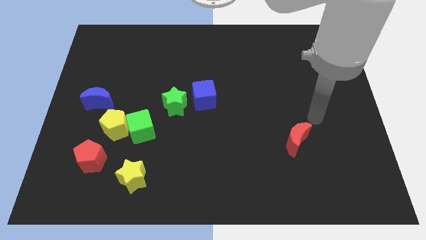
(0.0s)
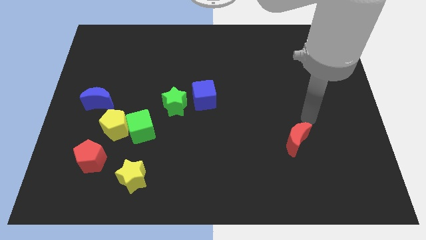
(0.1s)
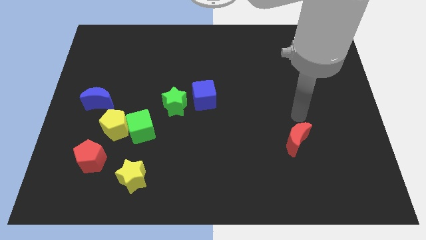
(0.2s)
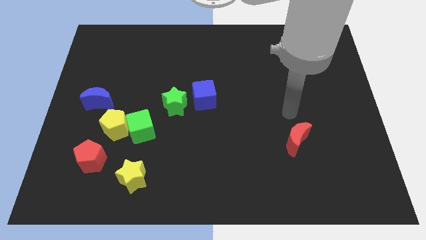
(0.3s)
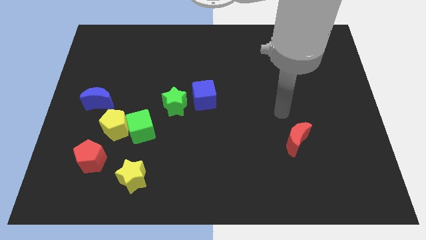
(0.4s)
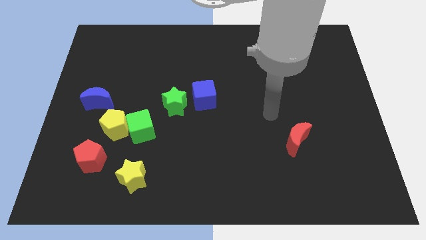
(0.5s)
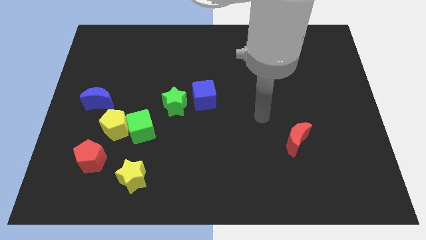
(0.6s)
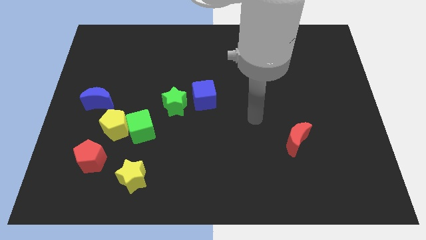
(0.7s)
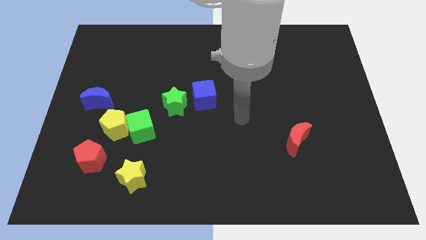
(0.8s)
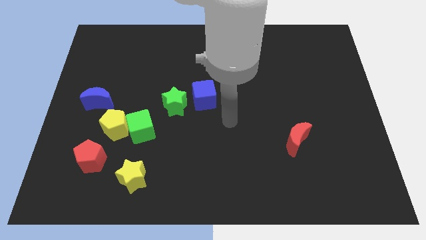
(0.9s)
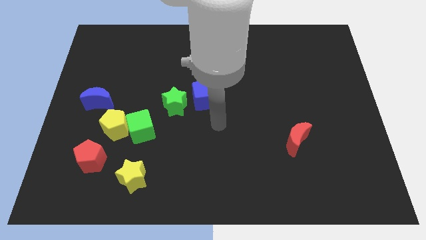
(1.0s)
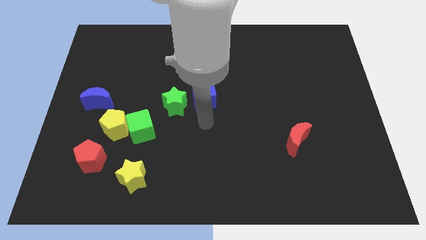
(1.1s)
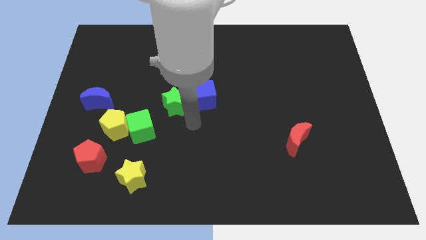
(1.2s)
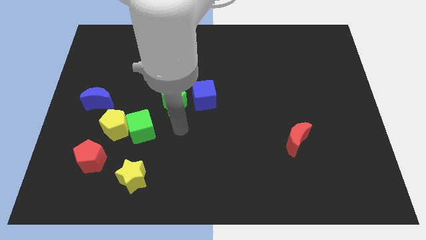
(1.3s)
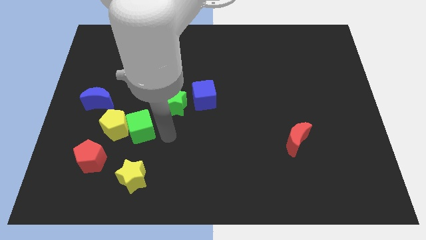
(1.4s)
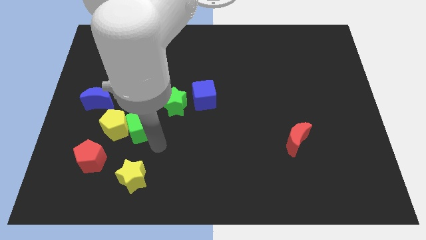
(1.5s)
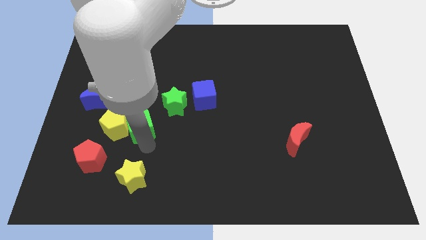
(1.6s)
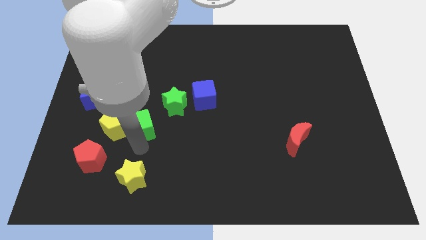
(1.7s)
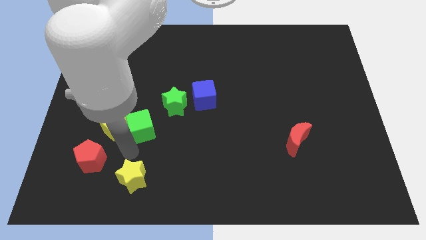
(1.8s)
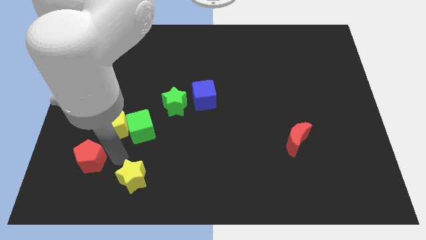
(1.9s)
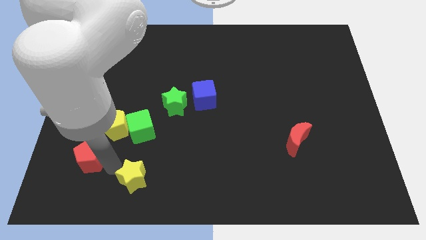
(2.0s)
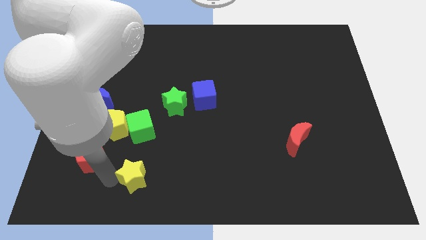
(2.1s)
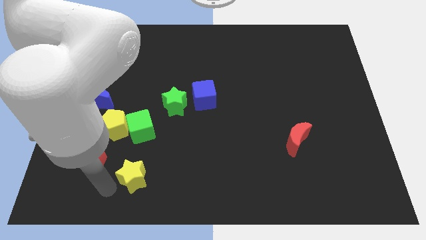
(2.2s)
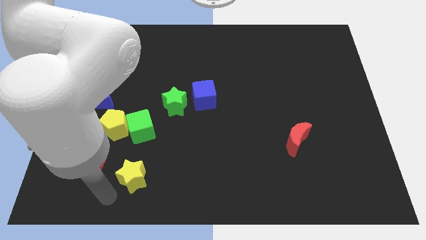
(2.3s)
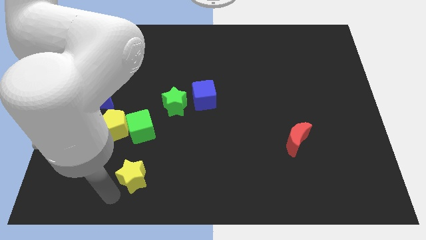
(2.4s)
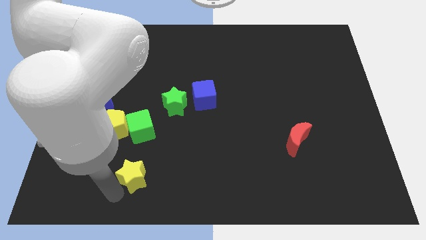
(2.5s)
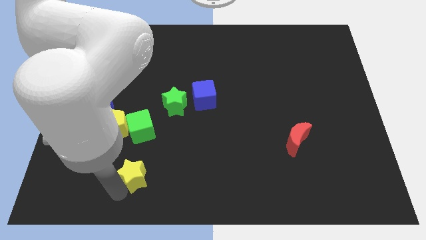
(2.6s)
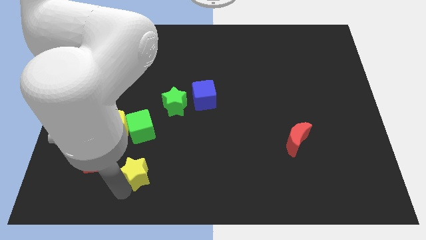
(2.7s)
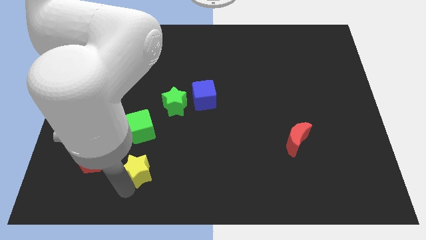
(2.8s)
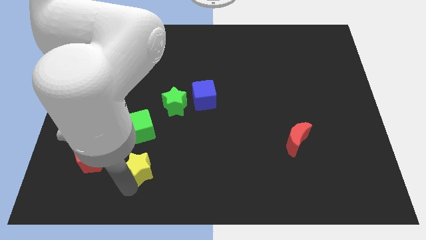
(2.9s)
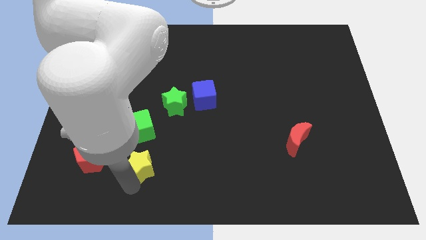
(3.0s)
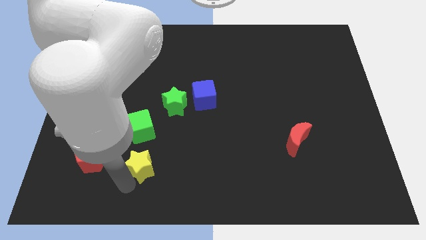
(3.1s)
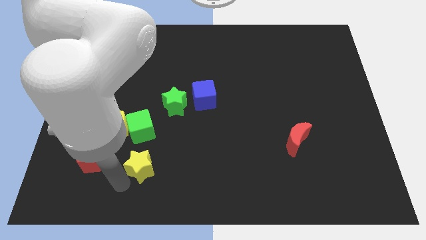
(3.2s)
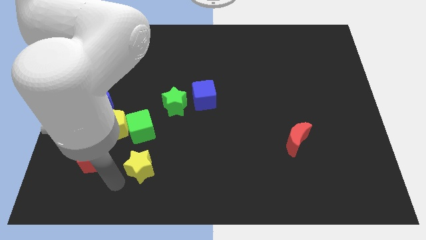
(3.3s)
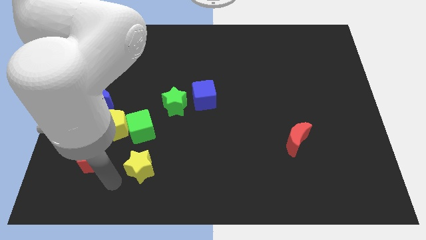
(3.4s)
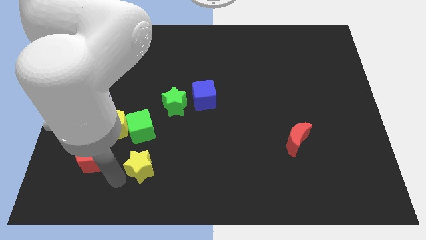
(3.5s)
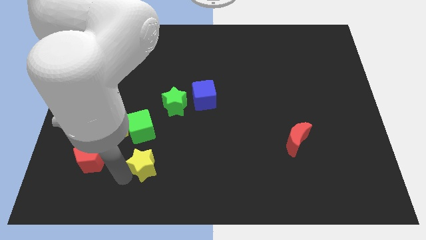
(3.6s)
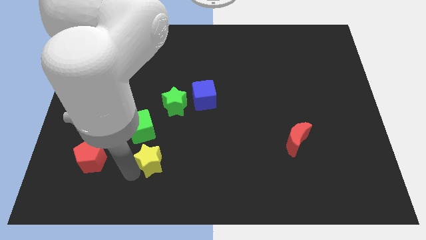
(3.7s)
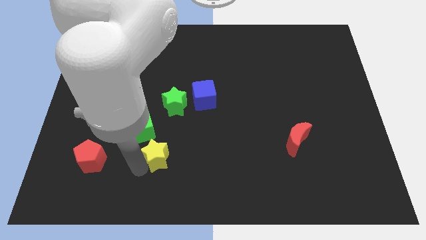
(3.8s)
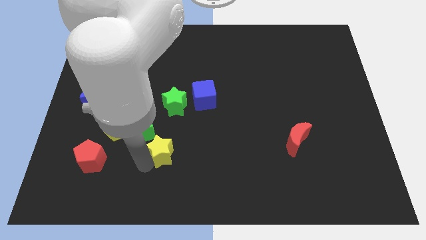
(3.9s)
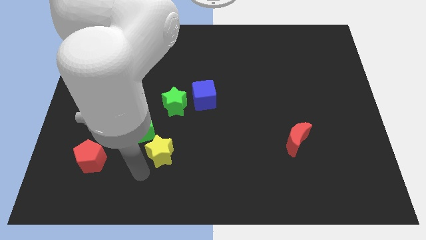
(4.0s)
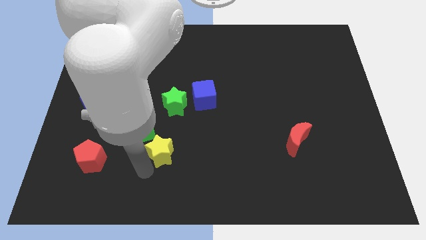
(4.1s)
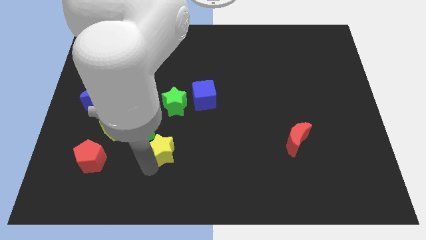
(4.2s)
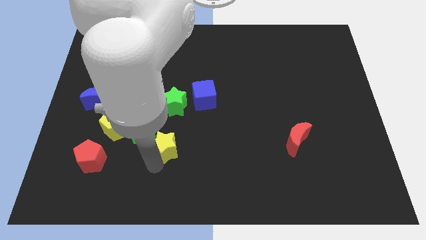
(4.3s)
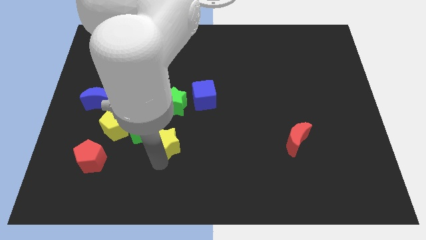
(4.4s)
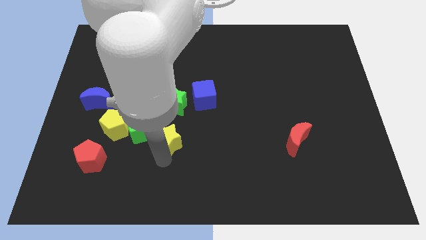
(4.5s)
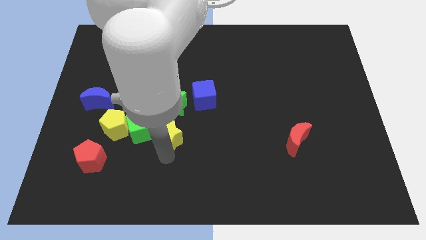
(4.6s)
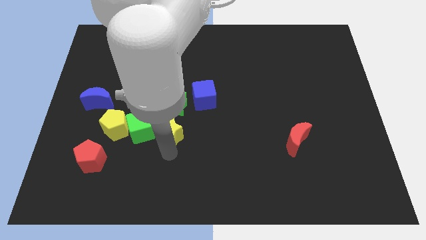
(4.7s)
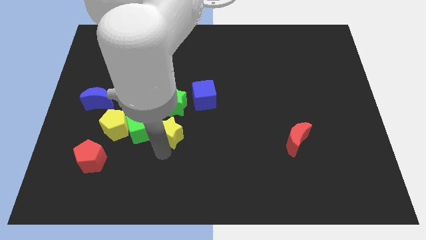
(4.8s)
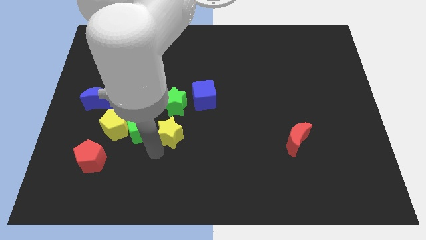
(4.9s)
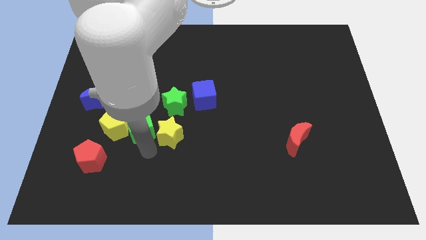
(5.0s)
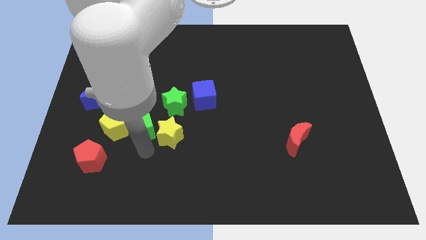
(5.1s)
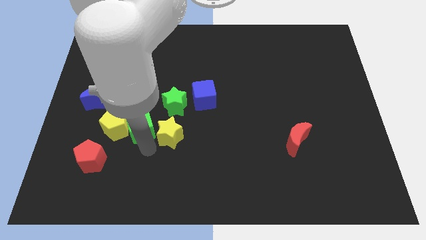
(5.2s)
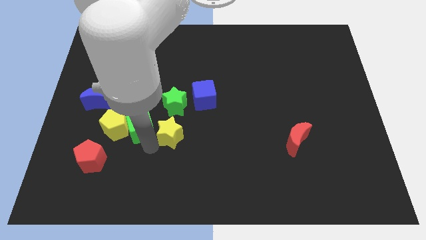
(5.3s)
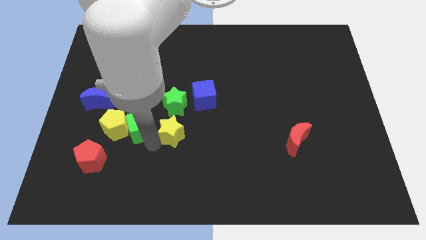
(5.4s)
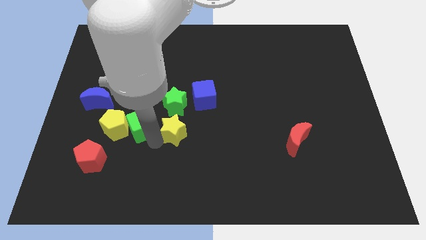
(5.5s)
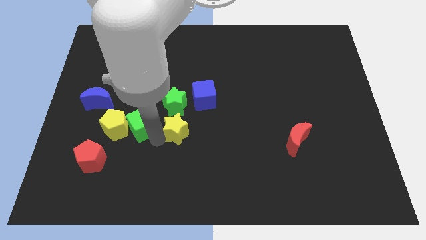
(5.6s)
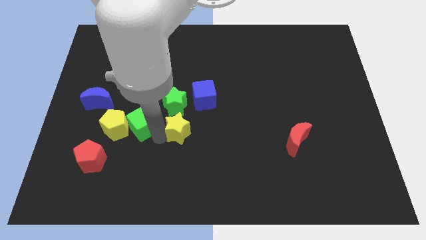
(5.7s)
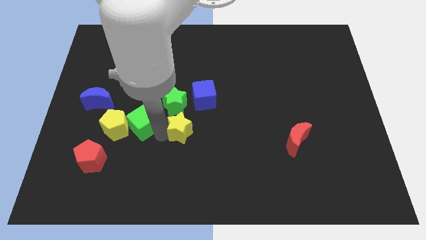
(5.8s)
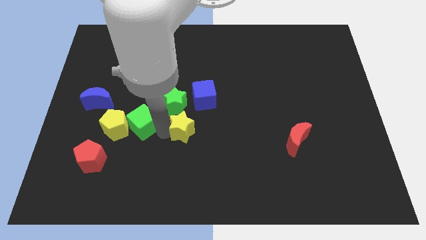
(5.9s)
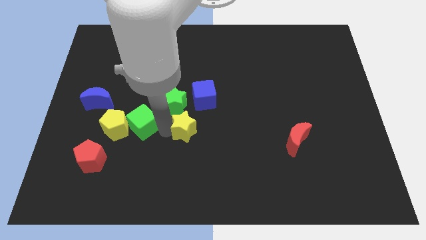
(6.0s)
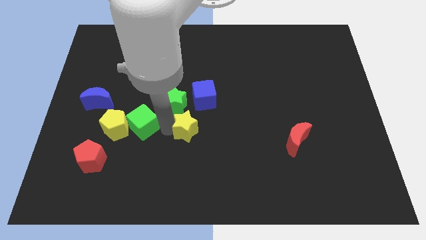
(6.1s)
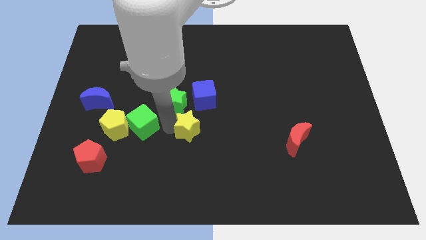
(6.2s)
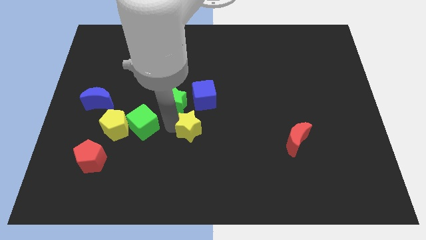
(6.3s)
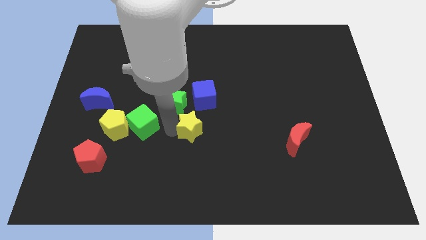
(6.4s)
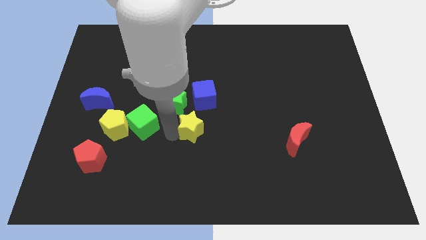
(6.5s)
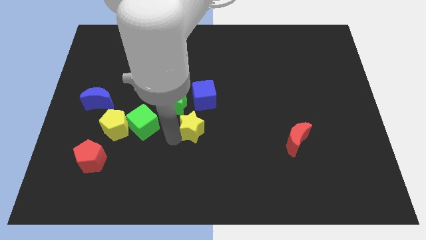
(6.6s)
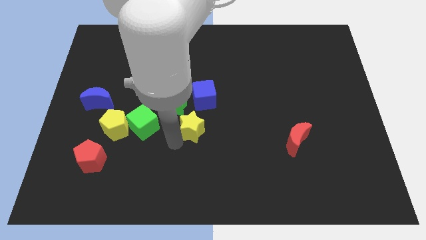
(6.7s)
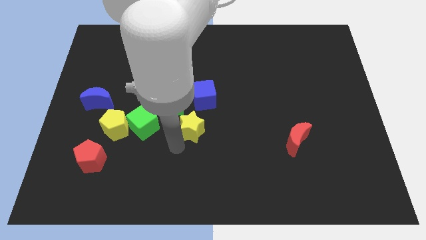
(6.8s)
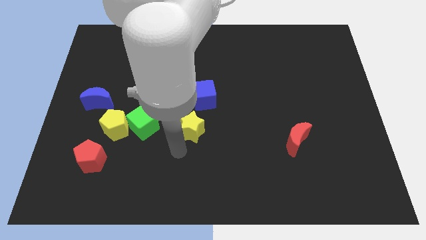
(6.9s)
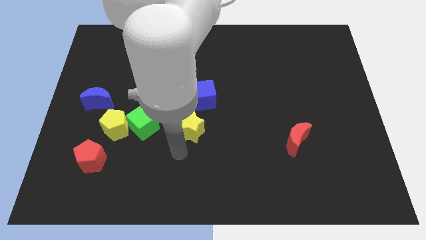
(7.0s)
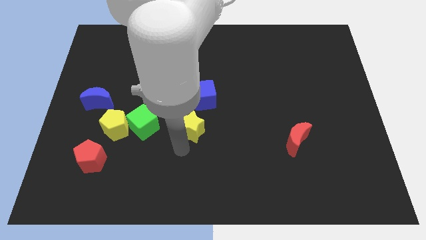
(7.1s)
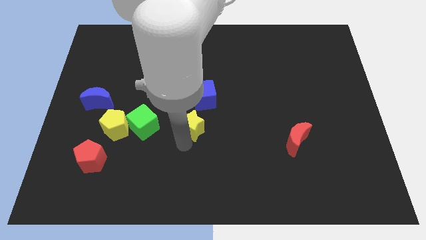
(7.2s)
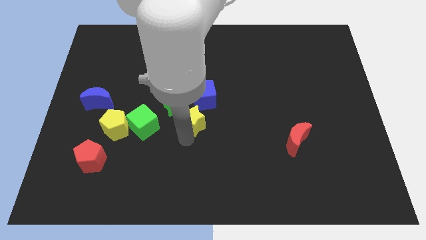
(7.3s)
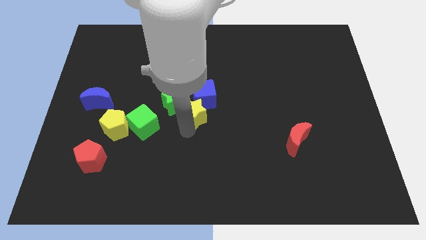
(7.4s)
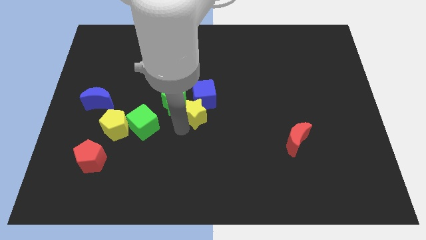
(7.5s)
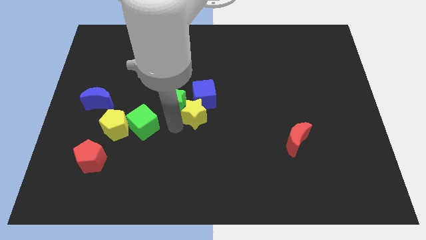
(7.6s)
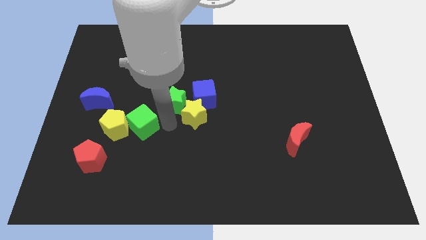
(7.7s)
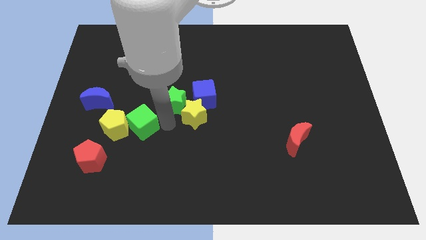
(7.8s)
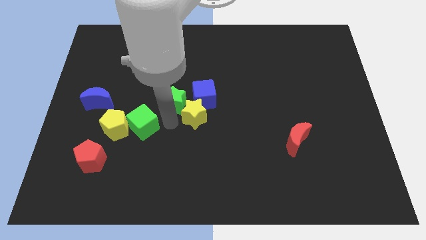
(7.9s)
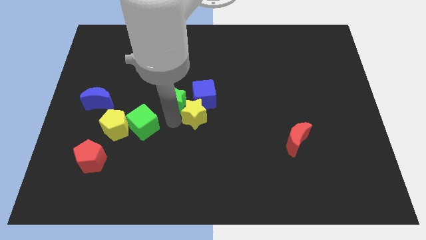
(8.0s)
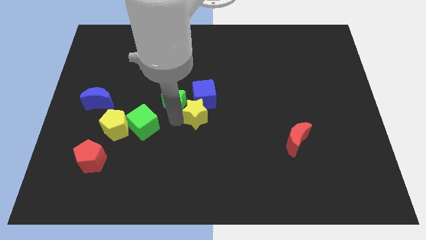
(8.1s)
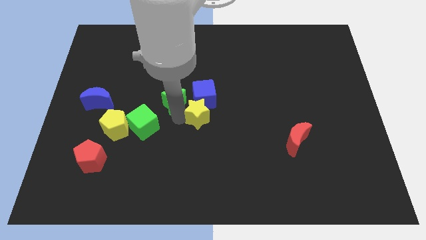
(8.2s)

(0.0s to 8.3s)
move the yellow star diagonally upwards and right

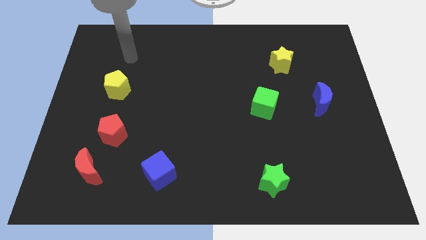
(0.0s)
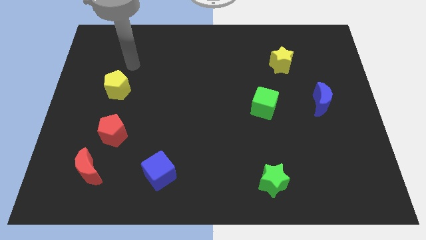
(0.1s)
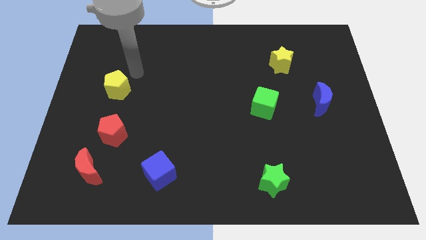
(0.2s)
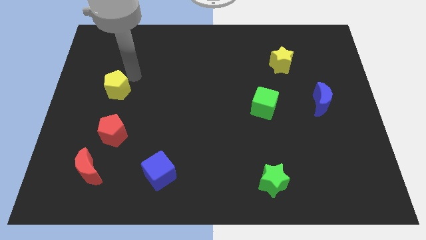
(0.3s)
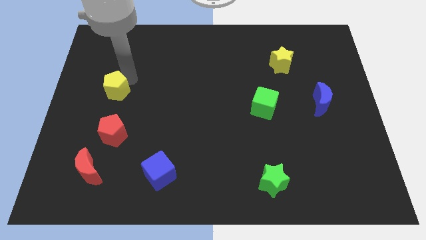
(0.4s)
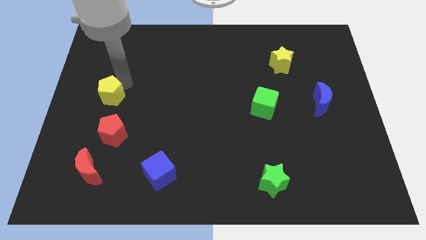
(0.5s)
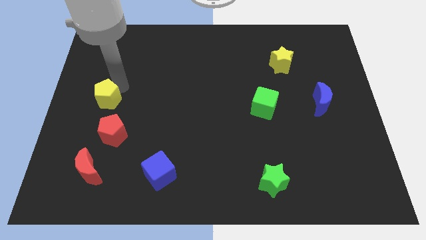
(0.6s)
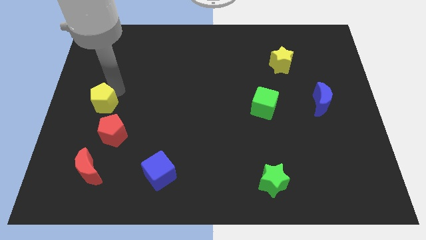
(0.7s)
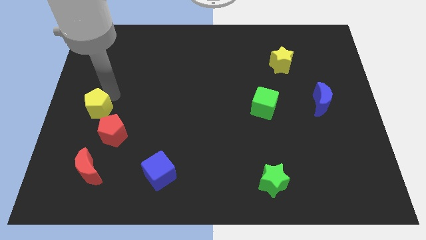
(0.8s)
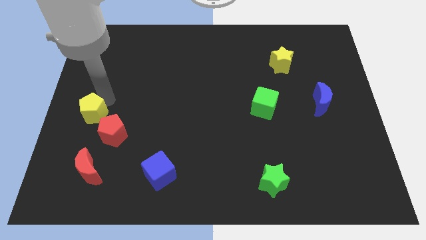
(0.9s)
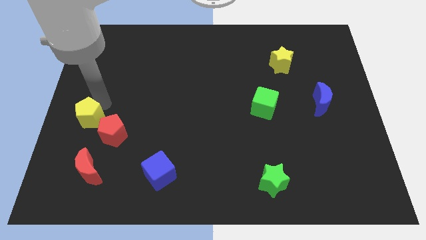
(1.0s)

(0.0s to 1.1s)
slightly slide the yellow pentagon downwards
